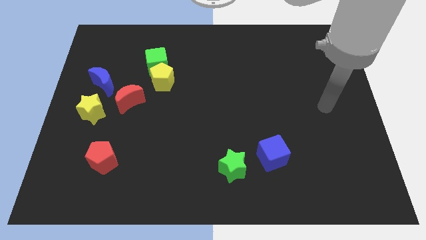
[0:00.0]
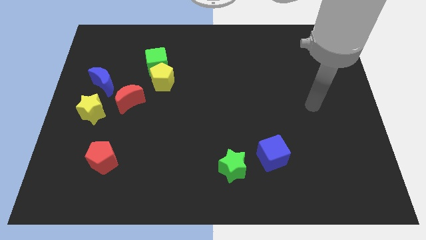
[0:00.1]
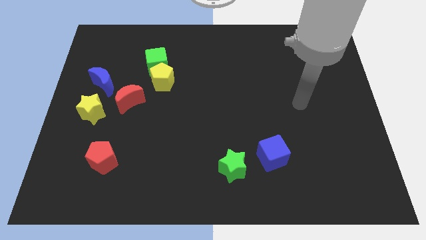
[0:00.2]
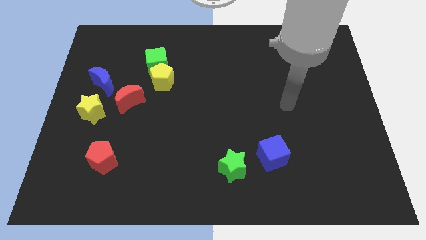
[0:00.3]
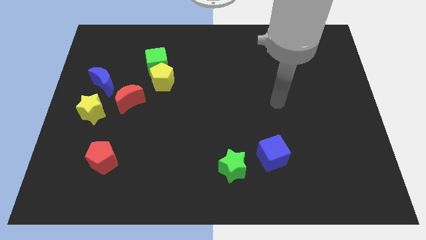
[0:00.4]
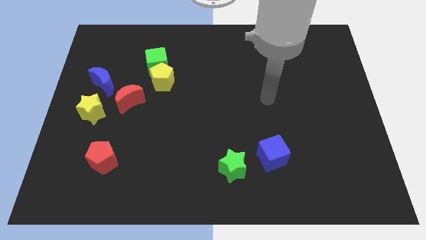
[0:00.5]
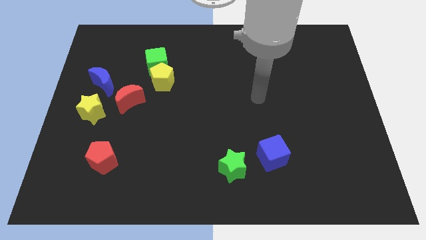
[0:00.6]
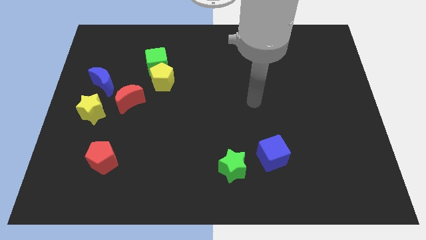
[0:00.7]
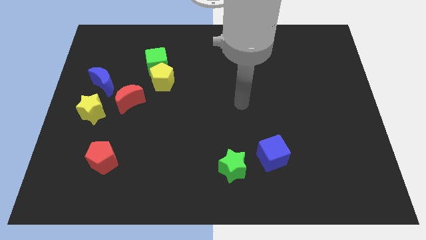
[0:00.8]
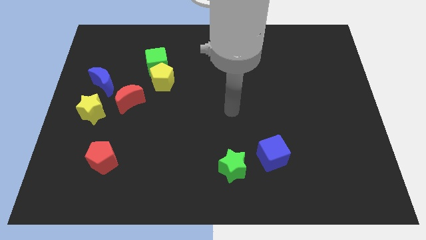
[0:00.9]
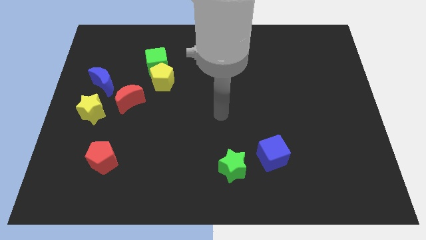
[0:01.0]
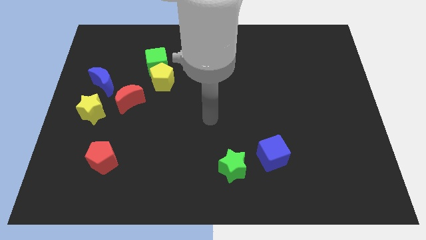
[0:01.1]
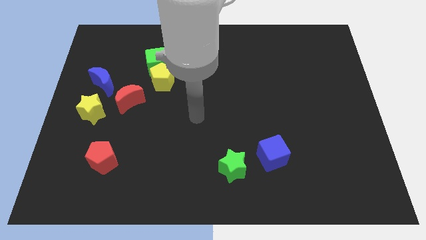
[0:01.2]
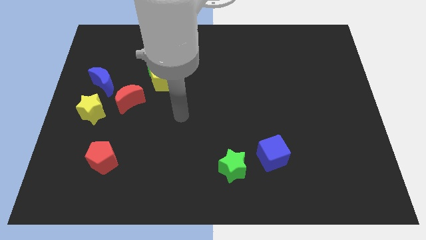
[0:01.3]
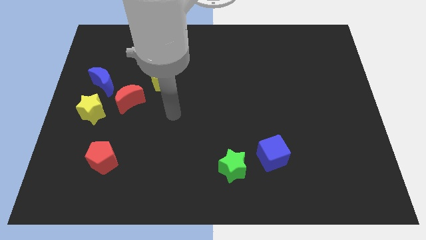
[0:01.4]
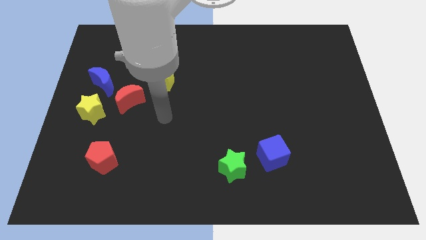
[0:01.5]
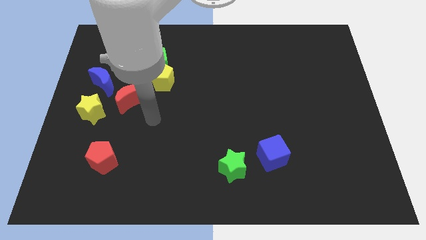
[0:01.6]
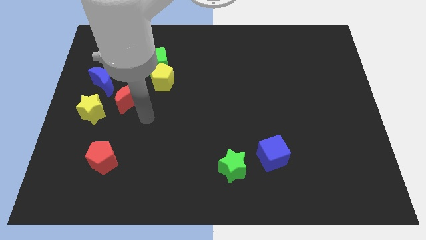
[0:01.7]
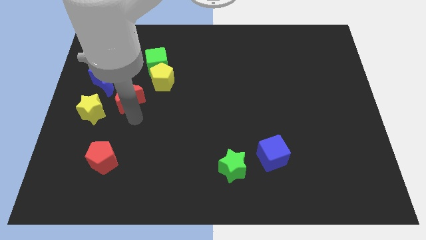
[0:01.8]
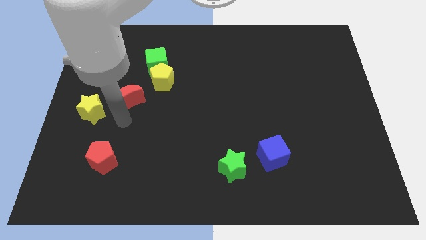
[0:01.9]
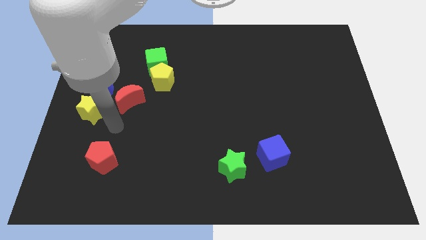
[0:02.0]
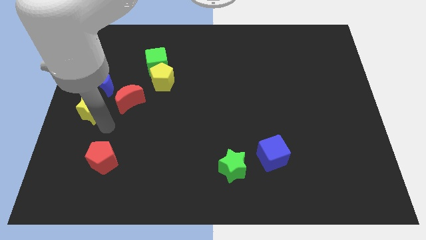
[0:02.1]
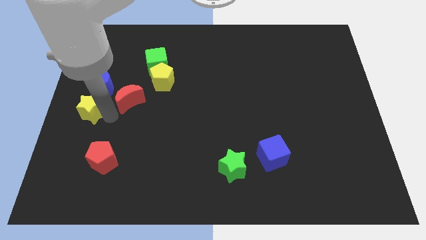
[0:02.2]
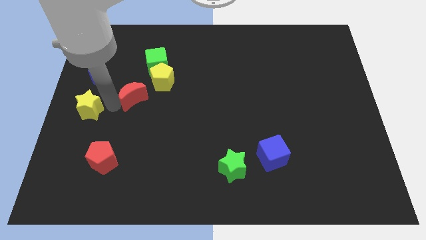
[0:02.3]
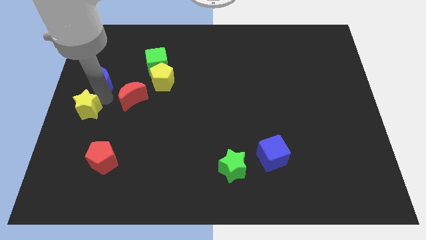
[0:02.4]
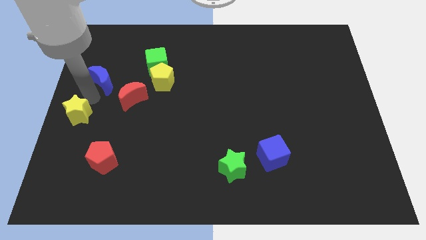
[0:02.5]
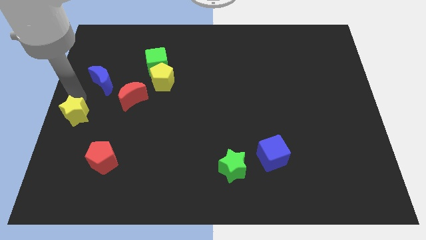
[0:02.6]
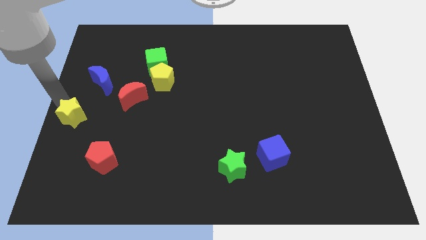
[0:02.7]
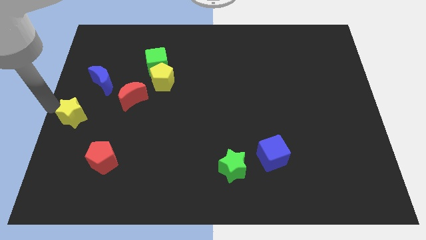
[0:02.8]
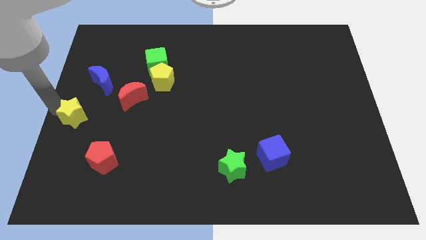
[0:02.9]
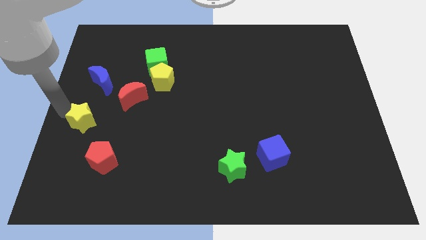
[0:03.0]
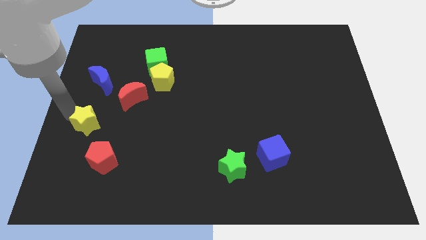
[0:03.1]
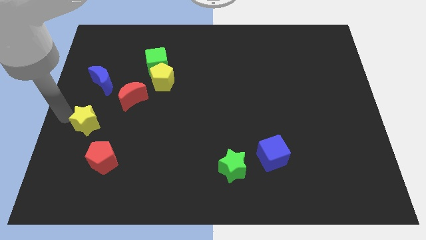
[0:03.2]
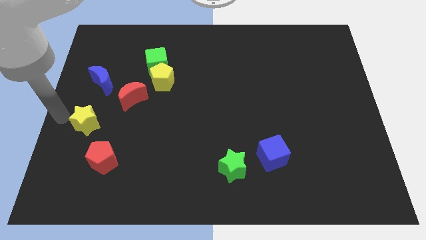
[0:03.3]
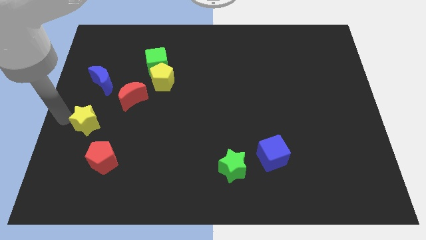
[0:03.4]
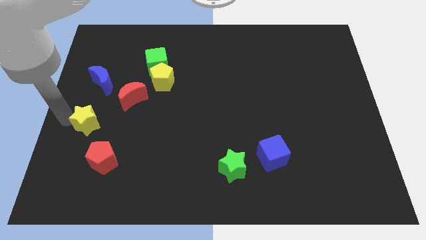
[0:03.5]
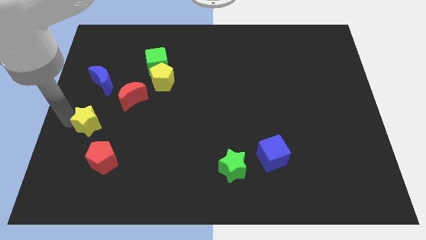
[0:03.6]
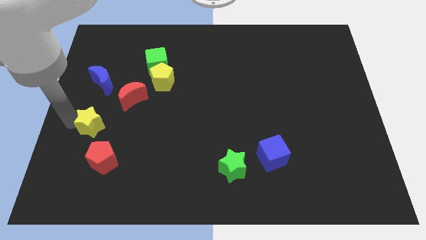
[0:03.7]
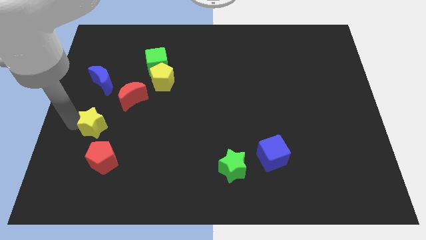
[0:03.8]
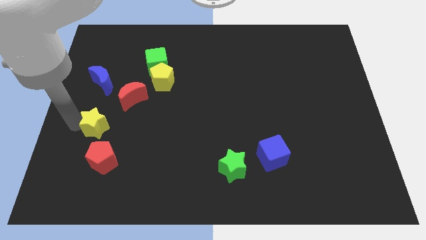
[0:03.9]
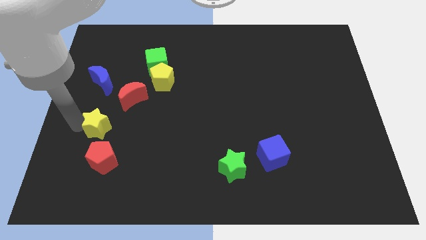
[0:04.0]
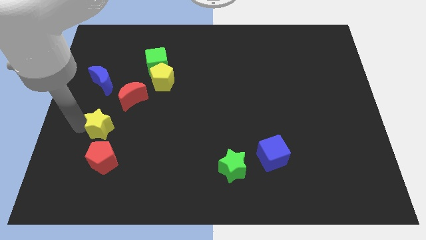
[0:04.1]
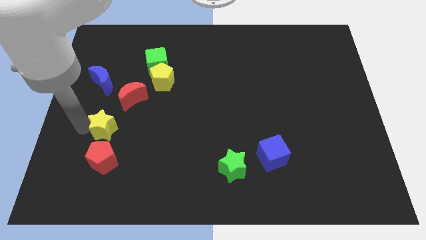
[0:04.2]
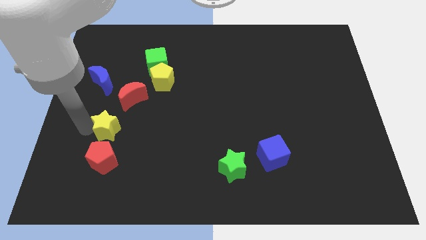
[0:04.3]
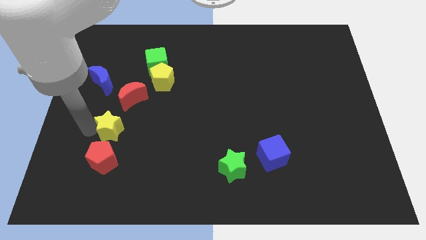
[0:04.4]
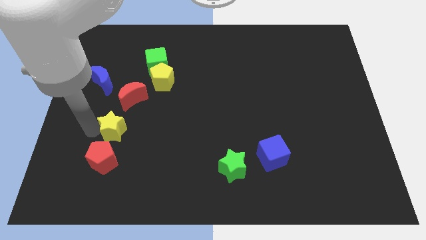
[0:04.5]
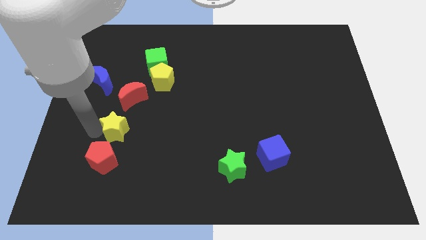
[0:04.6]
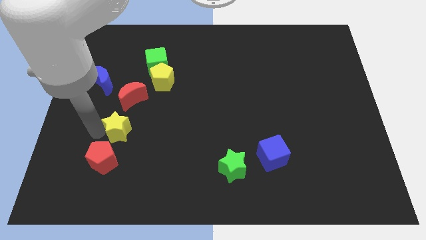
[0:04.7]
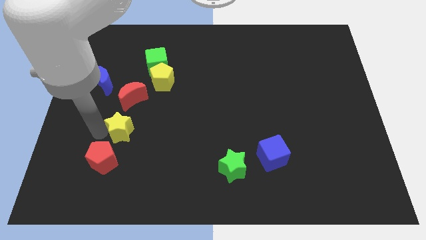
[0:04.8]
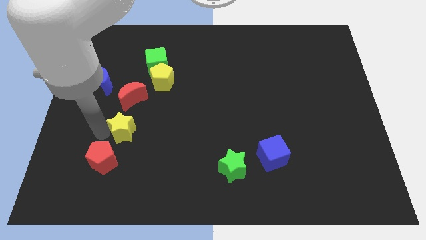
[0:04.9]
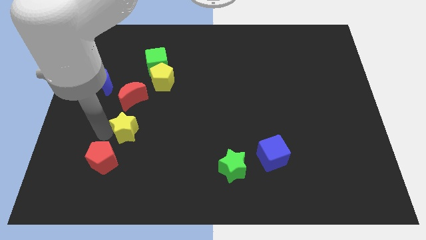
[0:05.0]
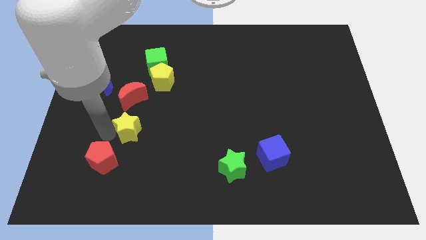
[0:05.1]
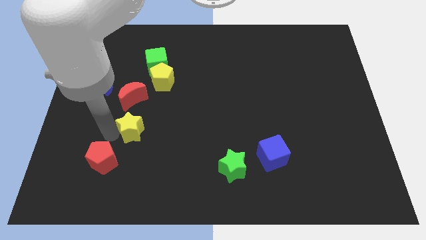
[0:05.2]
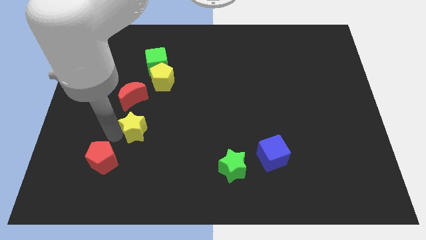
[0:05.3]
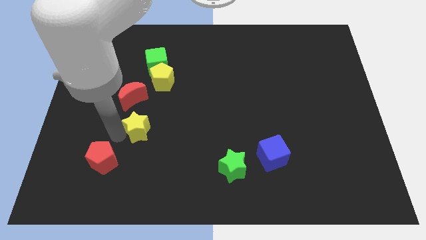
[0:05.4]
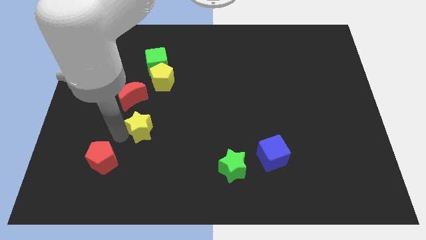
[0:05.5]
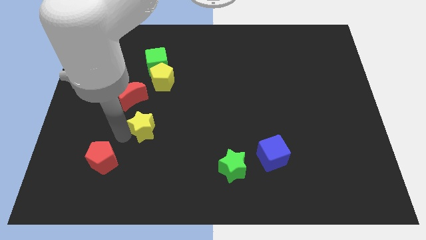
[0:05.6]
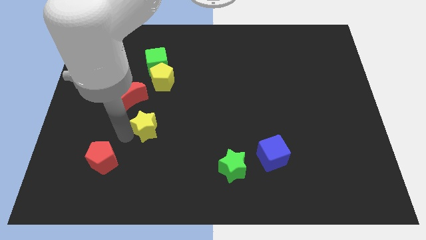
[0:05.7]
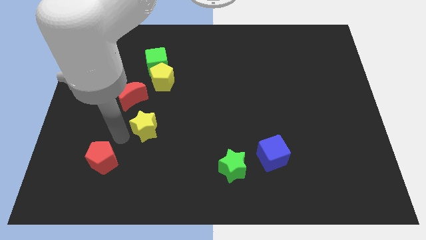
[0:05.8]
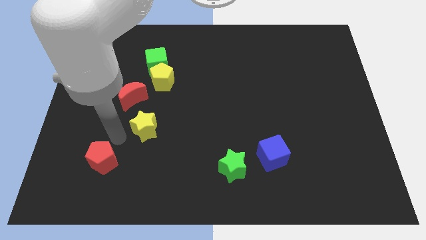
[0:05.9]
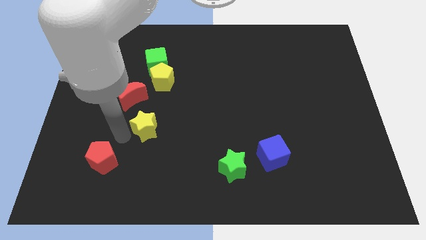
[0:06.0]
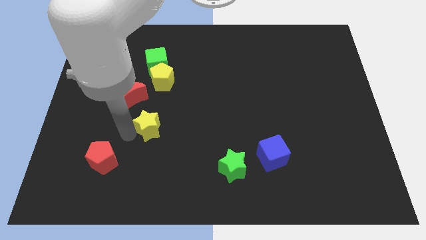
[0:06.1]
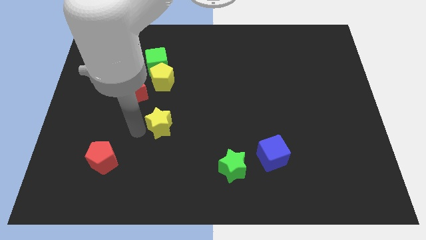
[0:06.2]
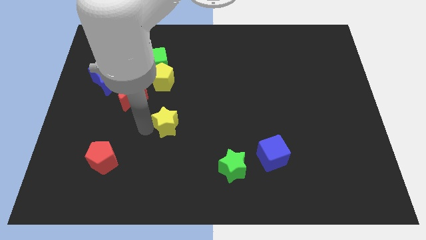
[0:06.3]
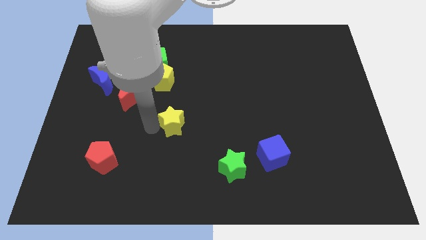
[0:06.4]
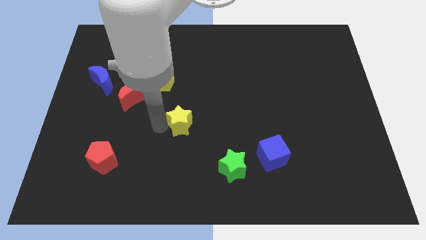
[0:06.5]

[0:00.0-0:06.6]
push the yellow star right

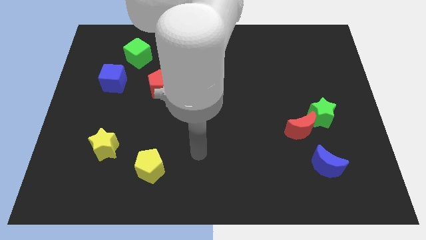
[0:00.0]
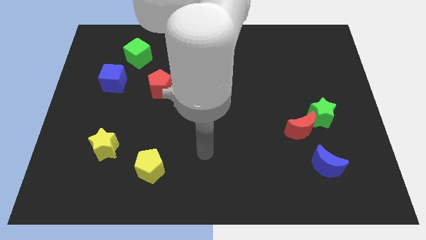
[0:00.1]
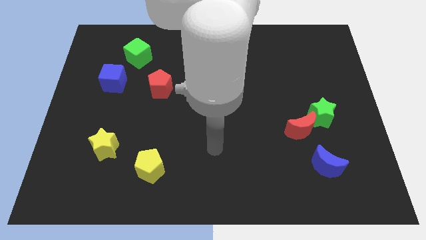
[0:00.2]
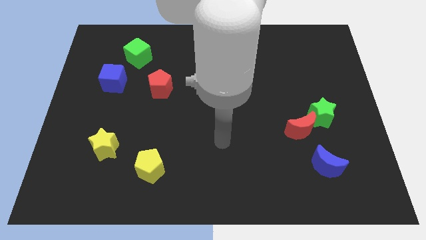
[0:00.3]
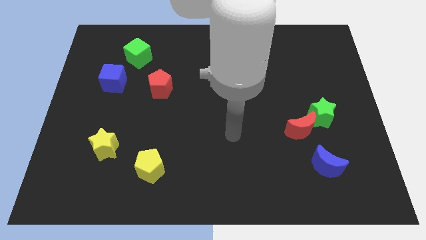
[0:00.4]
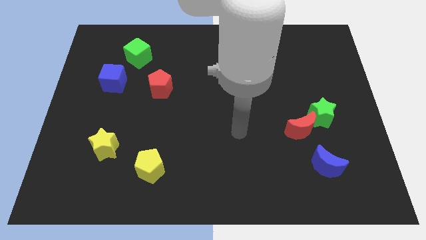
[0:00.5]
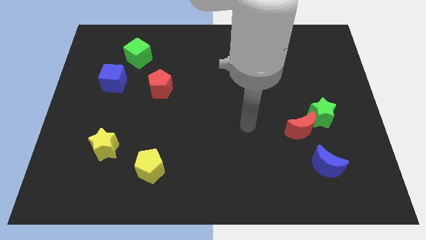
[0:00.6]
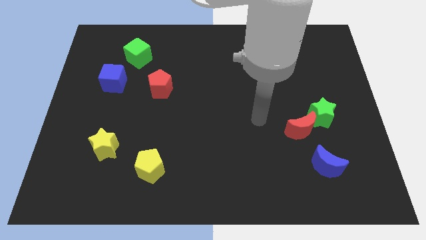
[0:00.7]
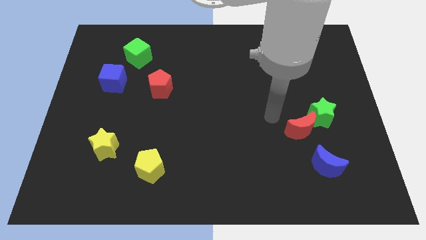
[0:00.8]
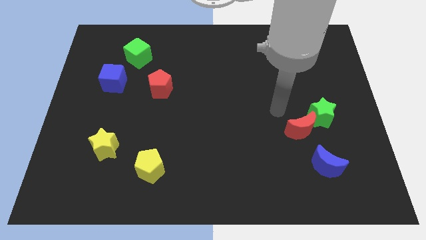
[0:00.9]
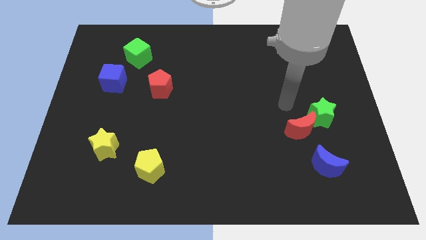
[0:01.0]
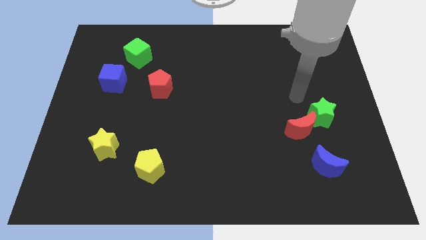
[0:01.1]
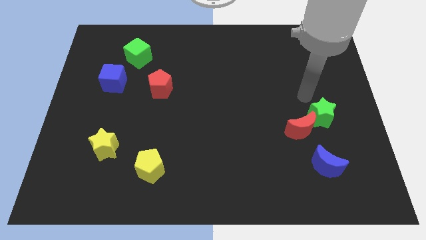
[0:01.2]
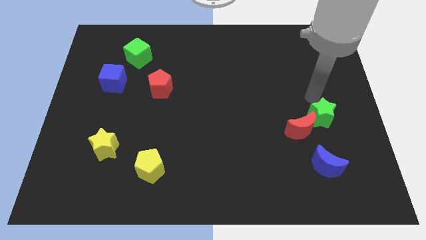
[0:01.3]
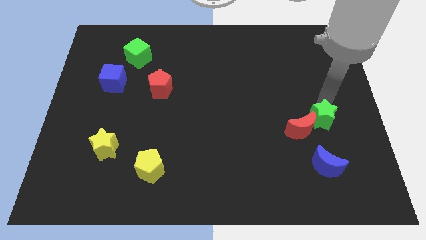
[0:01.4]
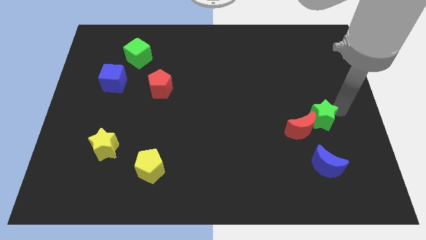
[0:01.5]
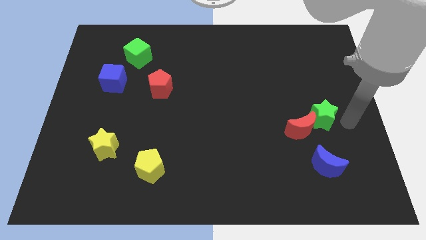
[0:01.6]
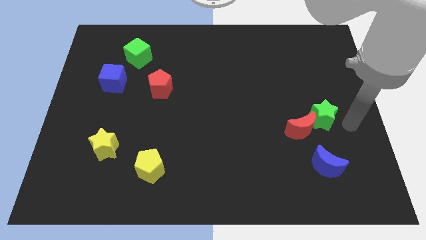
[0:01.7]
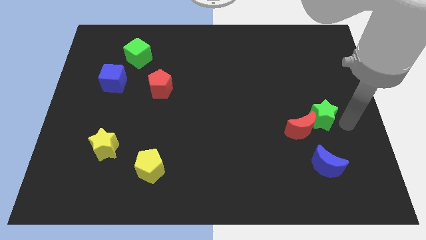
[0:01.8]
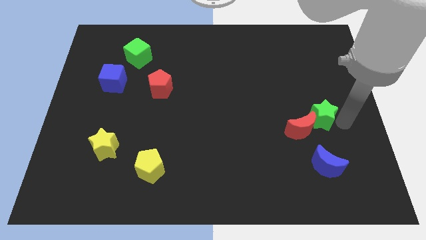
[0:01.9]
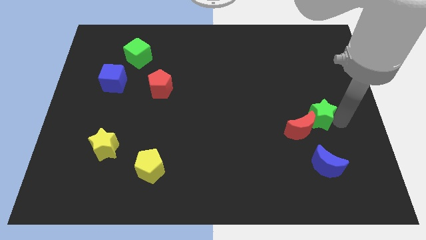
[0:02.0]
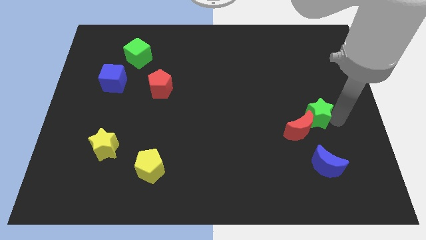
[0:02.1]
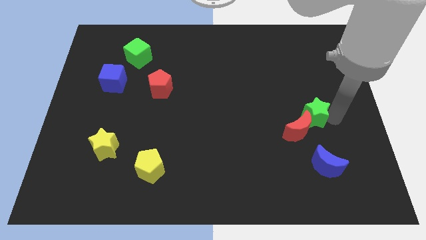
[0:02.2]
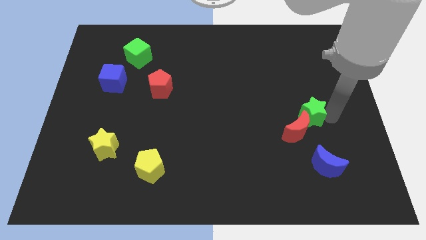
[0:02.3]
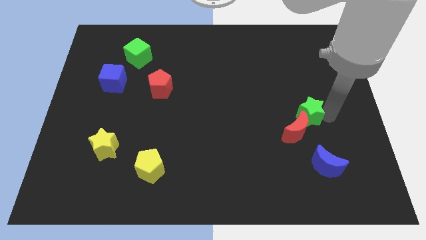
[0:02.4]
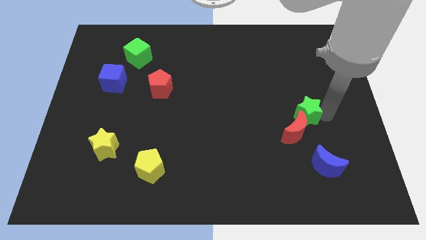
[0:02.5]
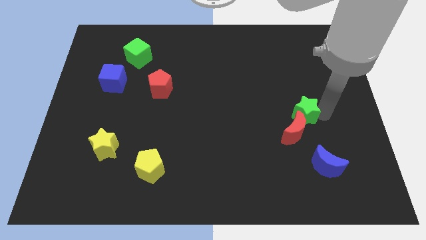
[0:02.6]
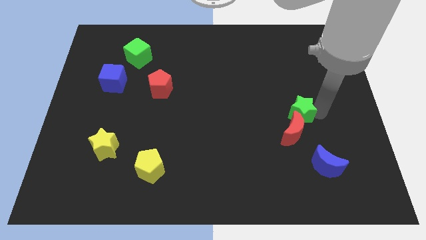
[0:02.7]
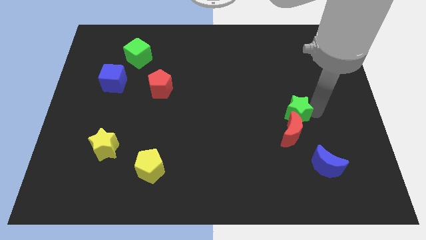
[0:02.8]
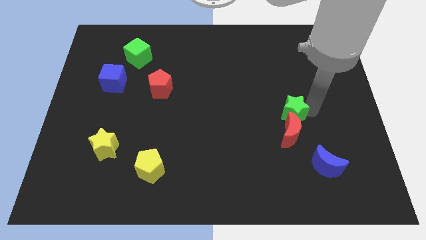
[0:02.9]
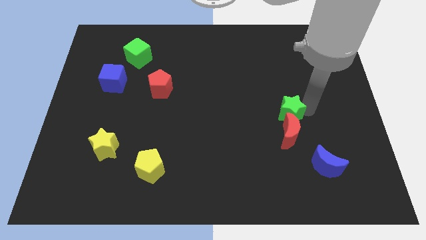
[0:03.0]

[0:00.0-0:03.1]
move the green star left a bit
